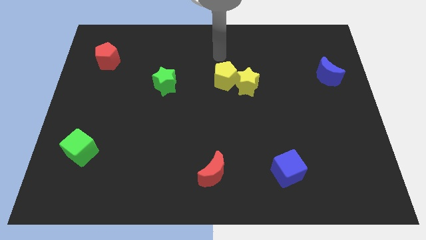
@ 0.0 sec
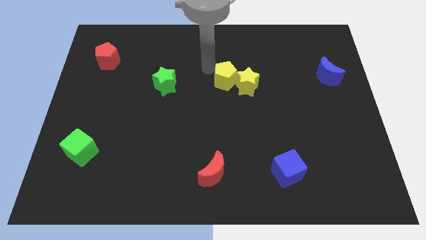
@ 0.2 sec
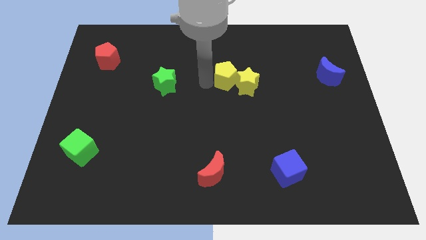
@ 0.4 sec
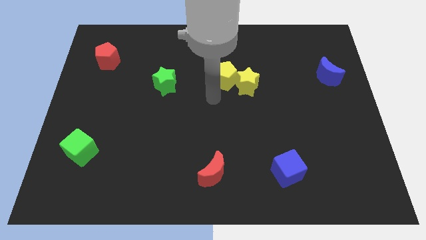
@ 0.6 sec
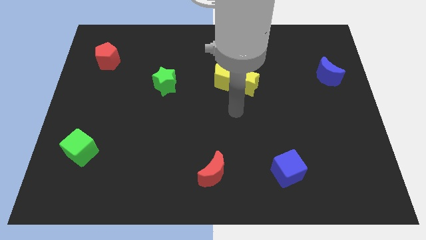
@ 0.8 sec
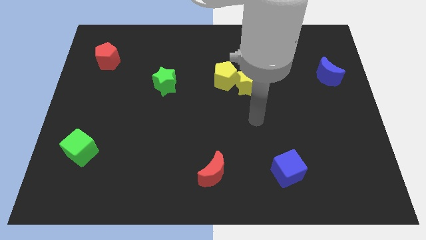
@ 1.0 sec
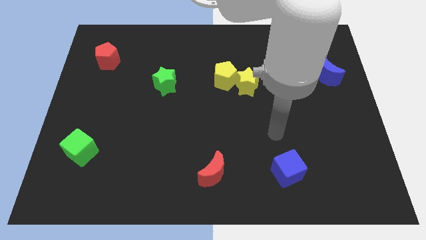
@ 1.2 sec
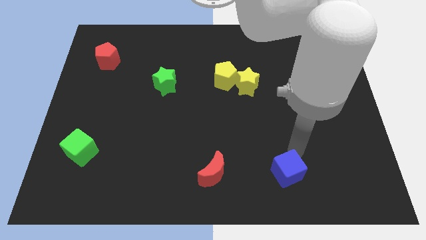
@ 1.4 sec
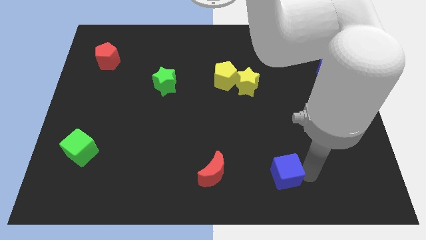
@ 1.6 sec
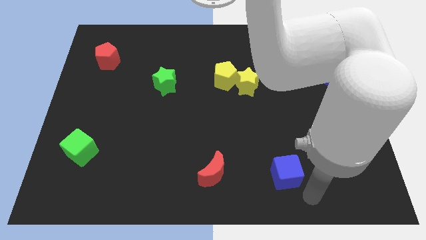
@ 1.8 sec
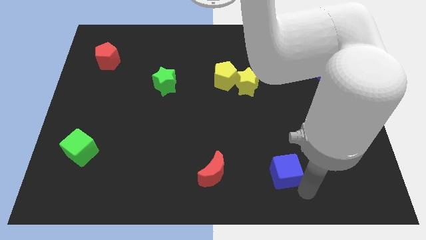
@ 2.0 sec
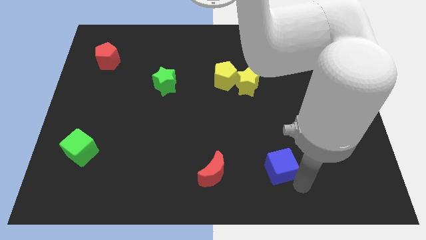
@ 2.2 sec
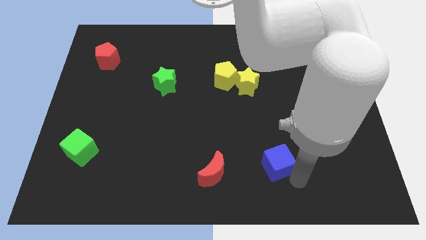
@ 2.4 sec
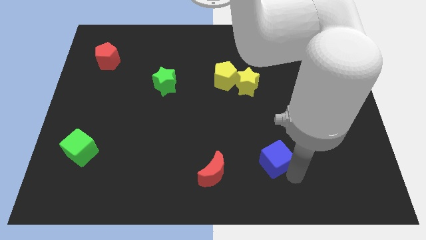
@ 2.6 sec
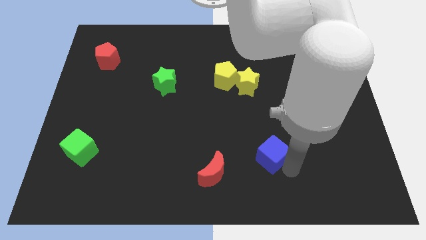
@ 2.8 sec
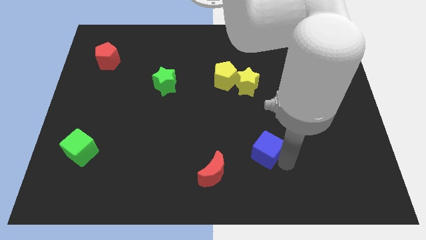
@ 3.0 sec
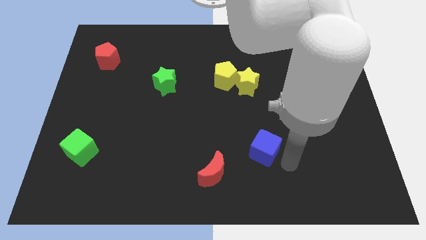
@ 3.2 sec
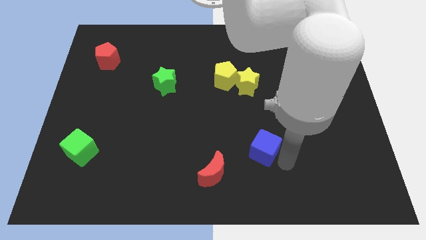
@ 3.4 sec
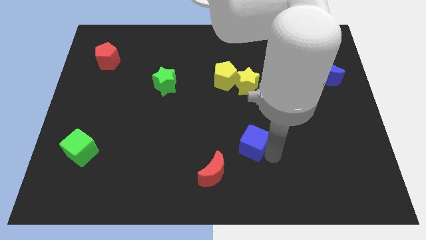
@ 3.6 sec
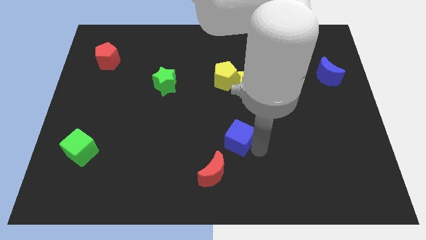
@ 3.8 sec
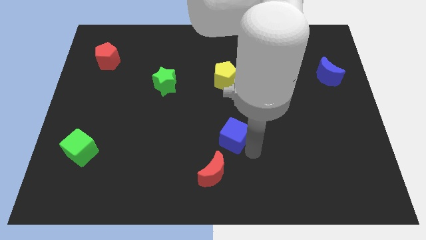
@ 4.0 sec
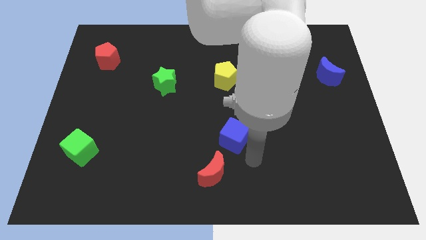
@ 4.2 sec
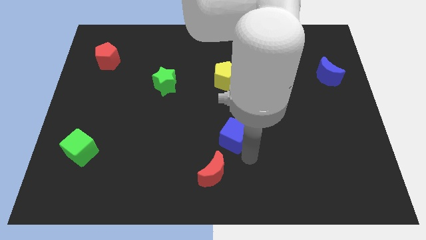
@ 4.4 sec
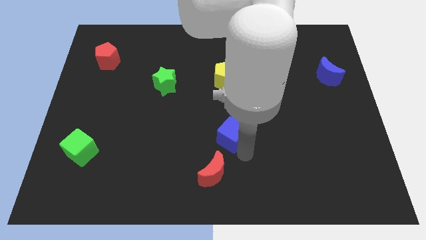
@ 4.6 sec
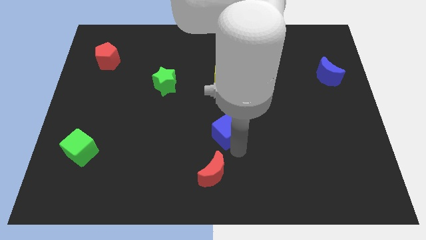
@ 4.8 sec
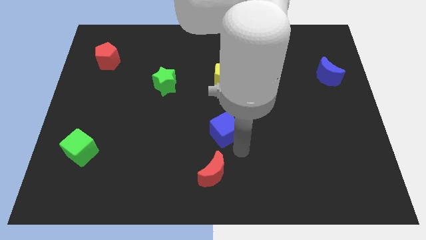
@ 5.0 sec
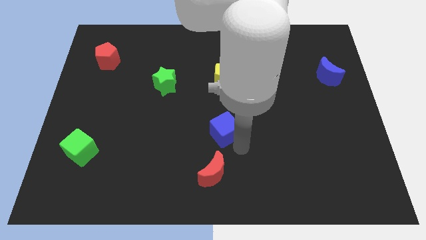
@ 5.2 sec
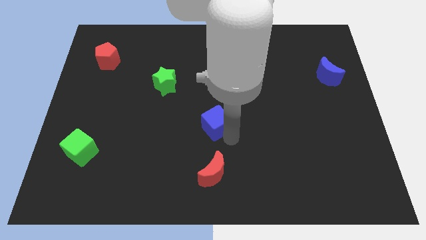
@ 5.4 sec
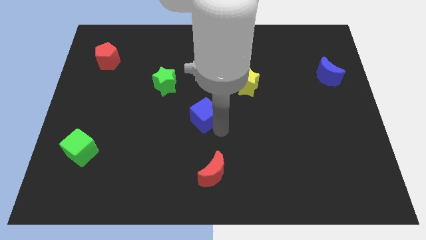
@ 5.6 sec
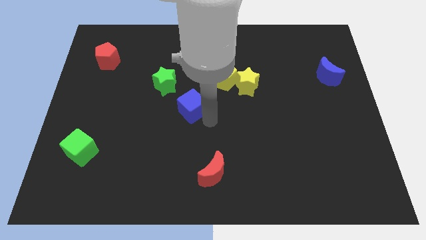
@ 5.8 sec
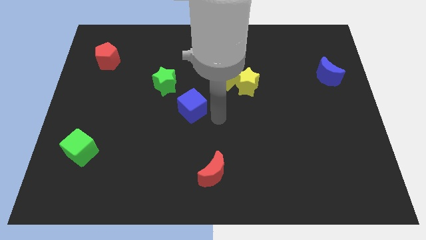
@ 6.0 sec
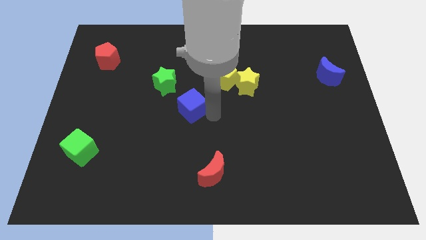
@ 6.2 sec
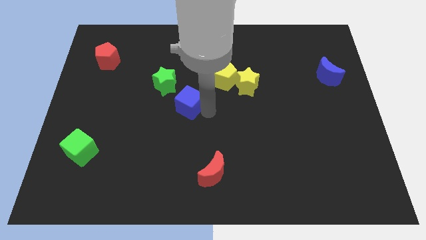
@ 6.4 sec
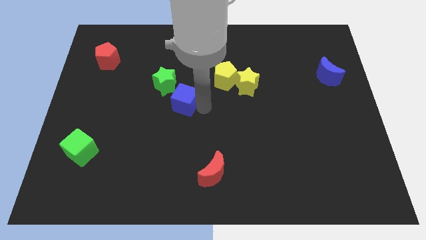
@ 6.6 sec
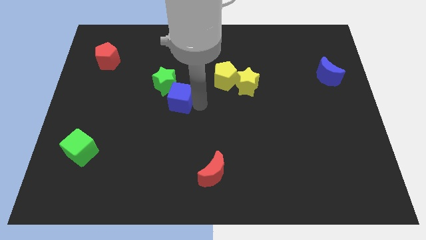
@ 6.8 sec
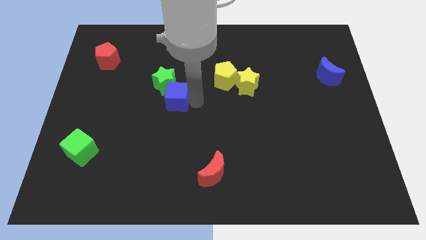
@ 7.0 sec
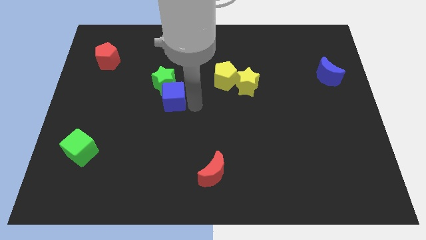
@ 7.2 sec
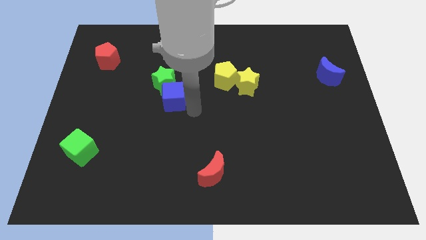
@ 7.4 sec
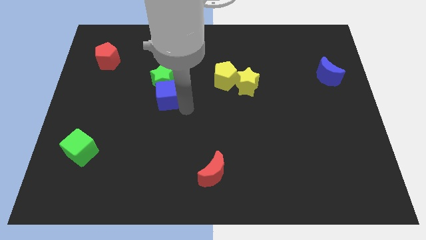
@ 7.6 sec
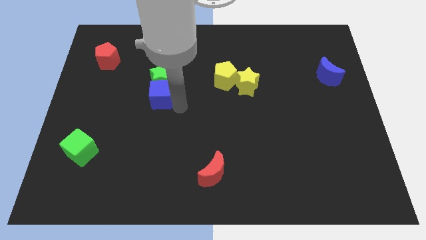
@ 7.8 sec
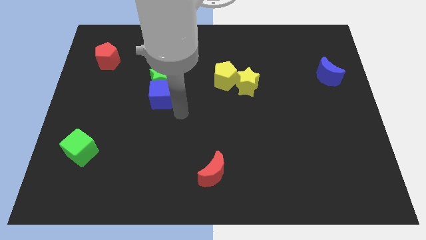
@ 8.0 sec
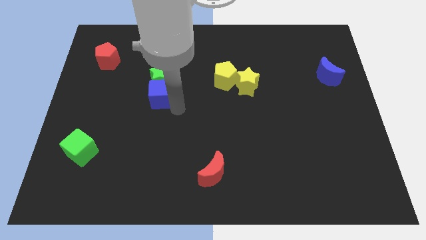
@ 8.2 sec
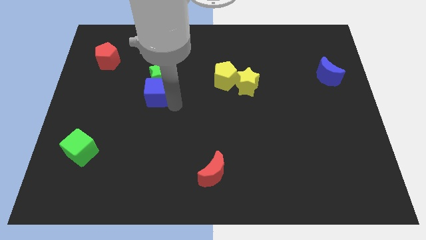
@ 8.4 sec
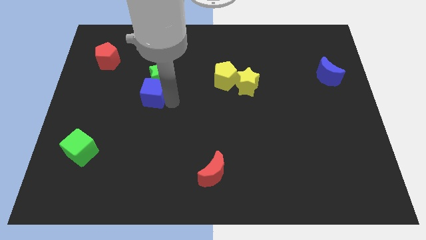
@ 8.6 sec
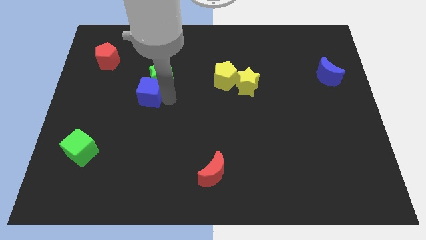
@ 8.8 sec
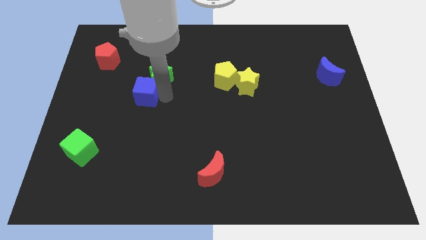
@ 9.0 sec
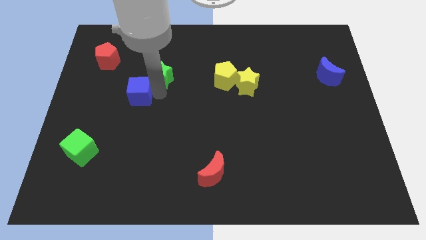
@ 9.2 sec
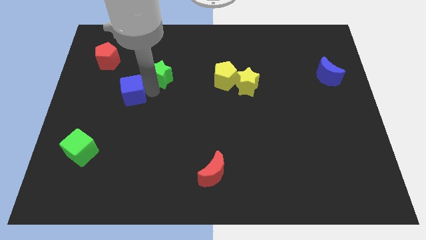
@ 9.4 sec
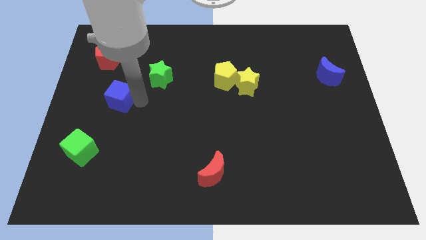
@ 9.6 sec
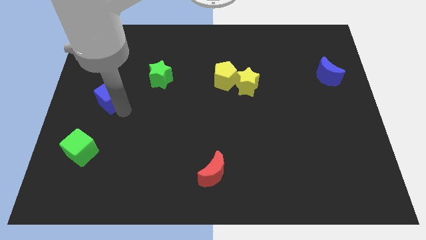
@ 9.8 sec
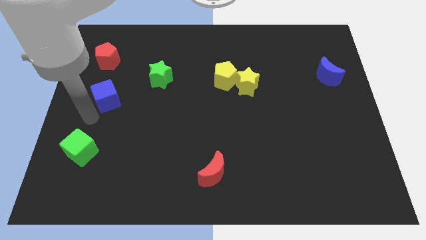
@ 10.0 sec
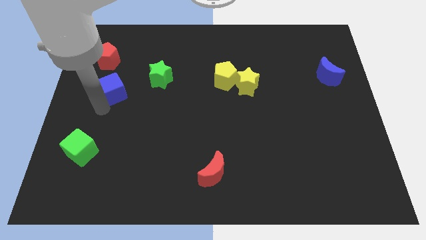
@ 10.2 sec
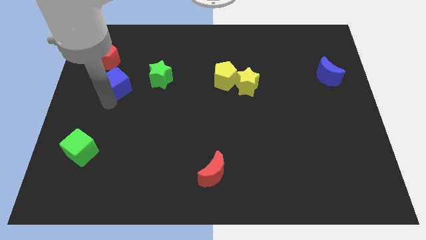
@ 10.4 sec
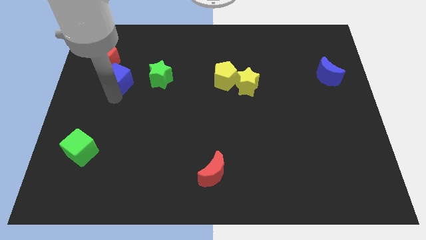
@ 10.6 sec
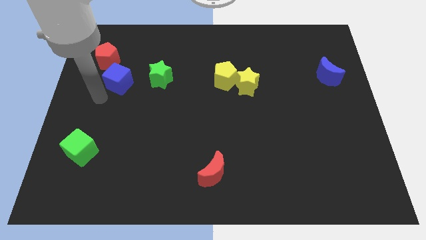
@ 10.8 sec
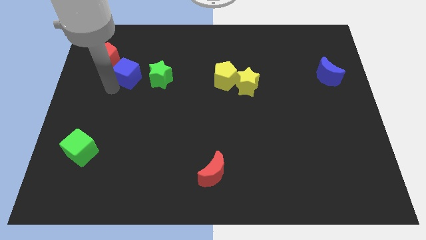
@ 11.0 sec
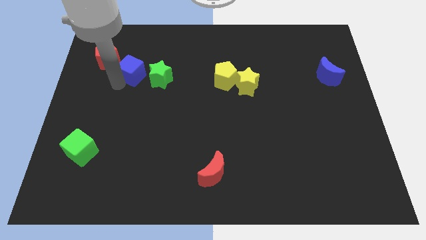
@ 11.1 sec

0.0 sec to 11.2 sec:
slide the blue cube to the top left side of the green star

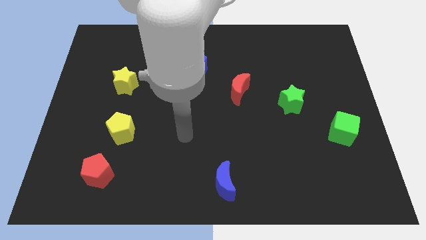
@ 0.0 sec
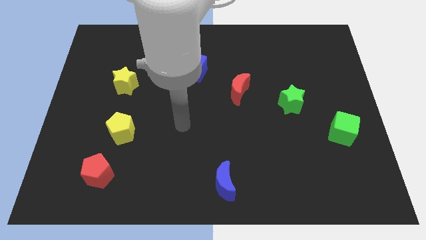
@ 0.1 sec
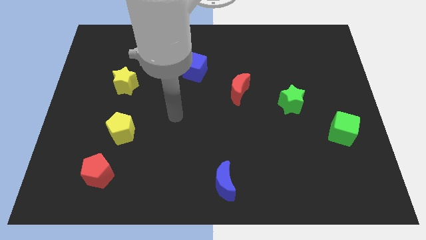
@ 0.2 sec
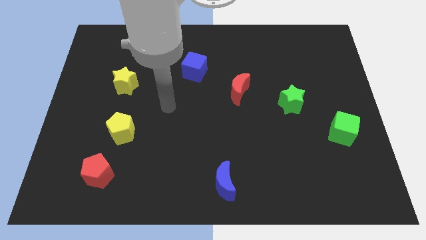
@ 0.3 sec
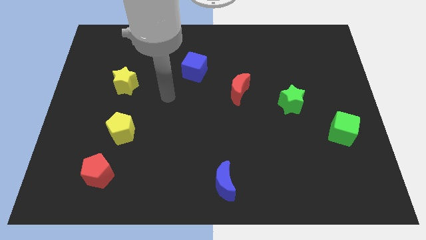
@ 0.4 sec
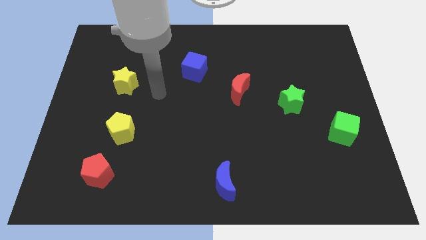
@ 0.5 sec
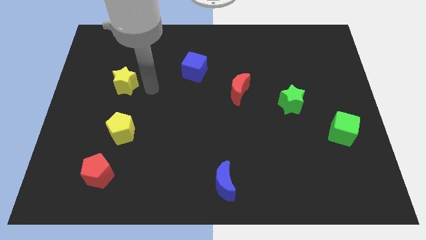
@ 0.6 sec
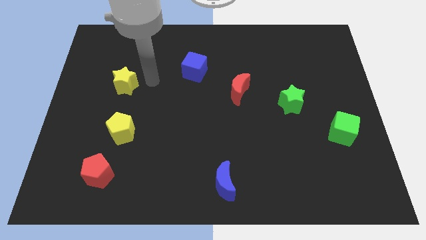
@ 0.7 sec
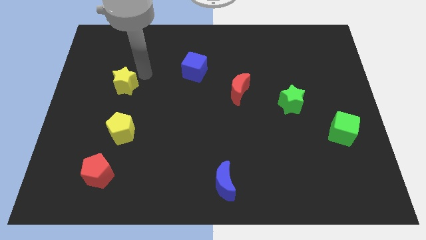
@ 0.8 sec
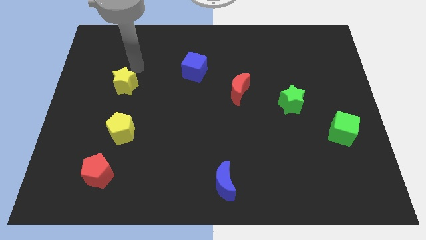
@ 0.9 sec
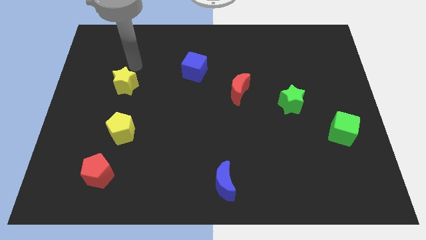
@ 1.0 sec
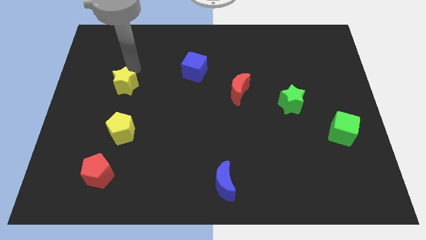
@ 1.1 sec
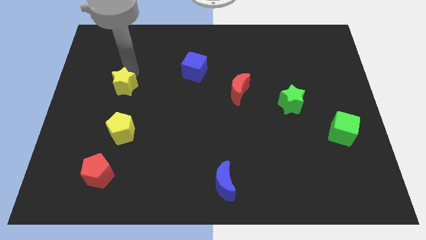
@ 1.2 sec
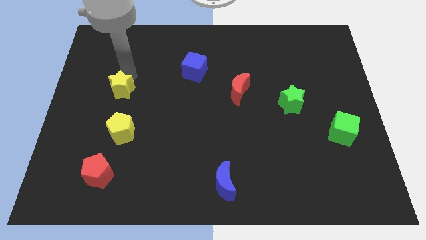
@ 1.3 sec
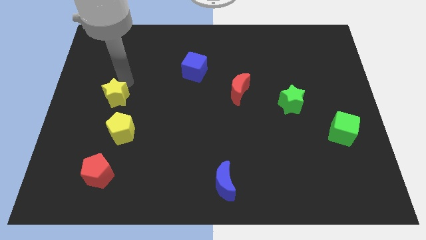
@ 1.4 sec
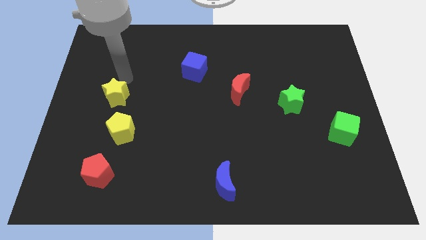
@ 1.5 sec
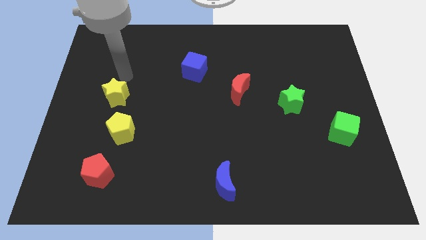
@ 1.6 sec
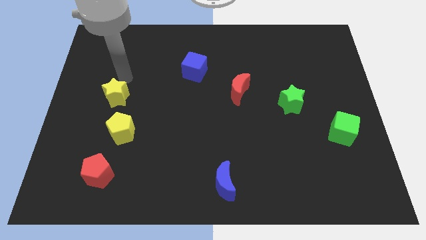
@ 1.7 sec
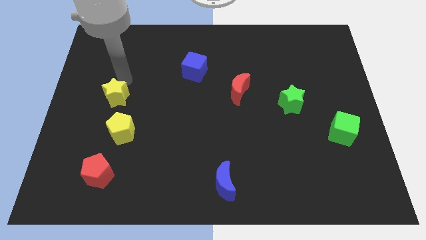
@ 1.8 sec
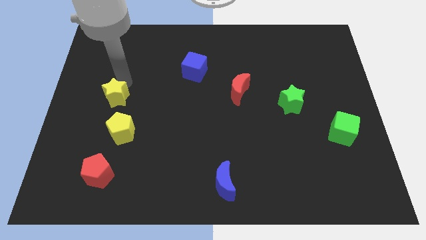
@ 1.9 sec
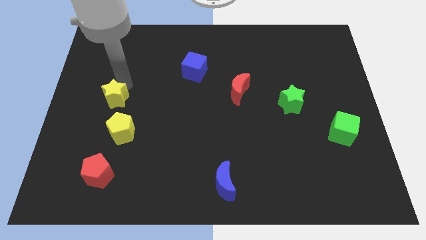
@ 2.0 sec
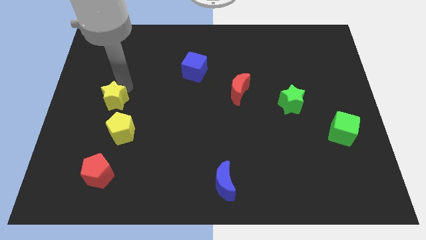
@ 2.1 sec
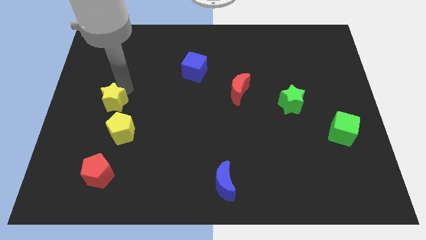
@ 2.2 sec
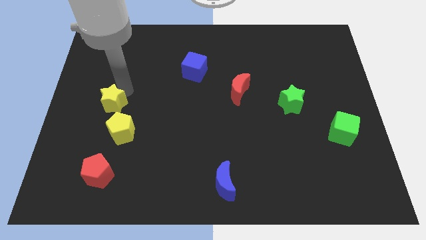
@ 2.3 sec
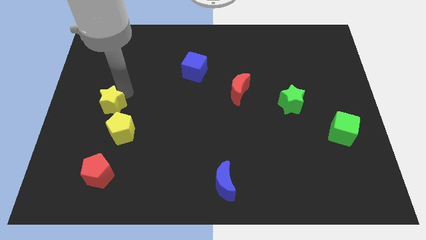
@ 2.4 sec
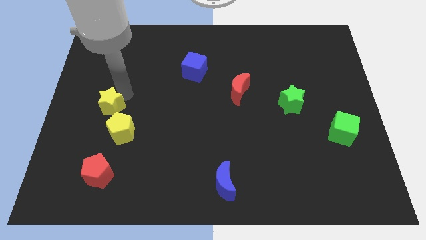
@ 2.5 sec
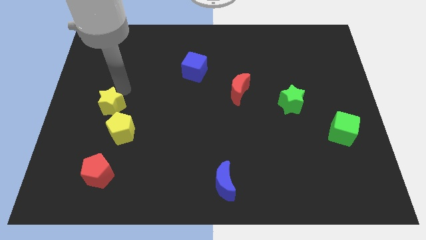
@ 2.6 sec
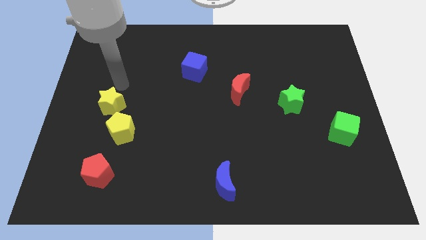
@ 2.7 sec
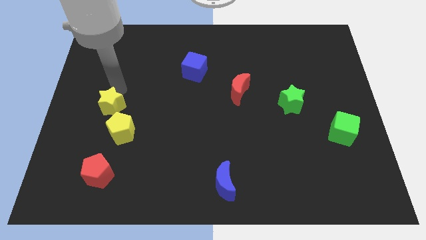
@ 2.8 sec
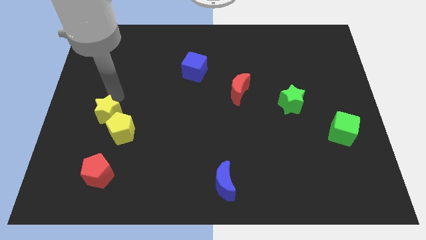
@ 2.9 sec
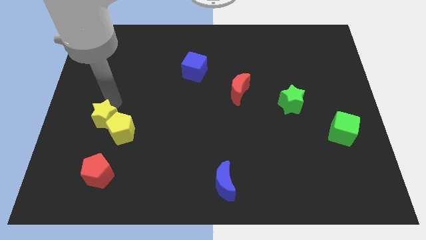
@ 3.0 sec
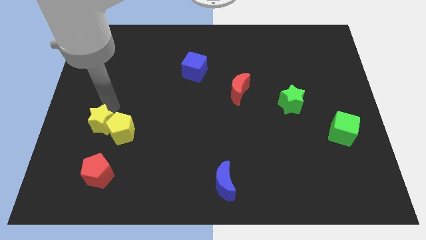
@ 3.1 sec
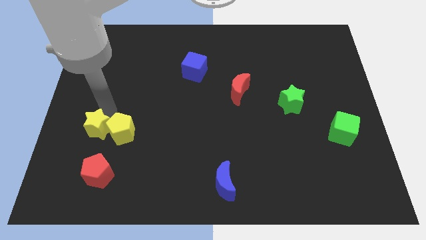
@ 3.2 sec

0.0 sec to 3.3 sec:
slide the yellow star to the bottom left of the yellow pentagon
